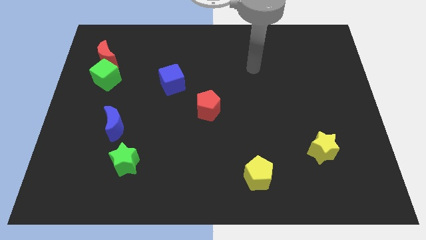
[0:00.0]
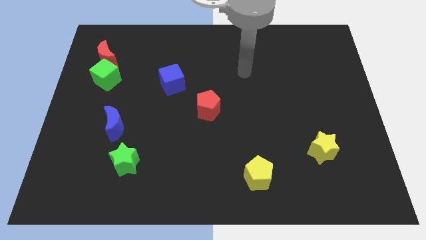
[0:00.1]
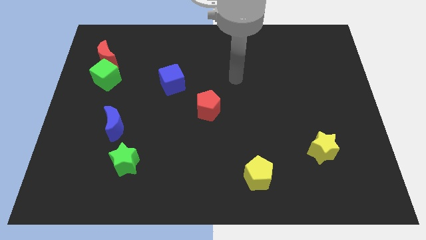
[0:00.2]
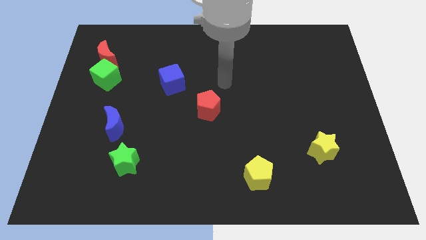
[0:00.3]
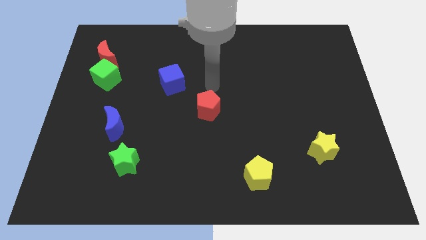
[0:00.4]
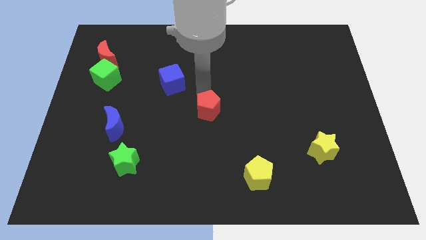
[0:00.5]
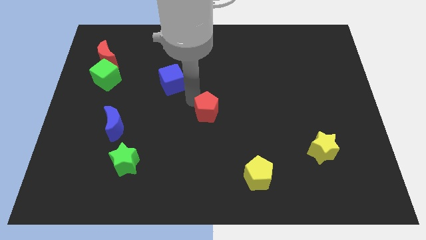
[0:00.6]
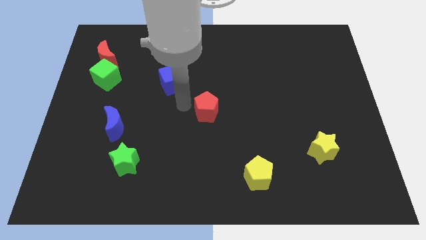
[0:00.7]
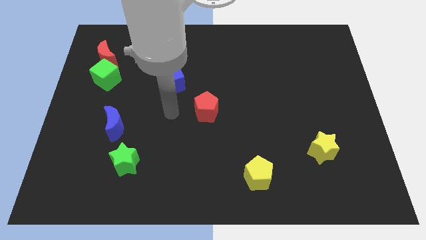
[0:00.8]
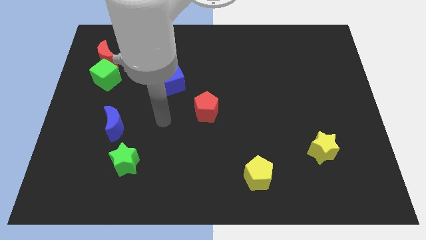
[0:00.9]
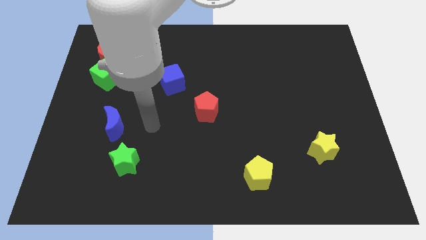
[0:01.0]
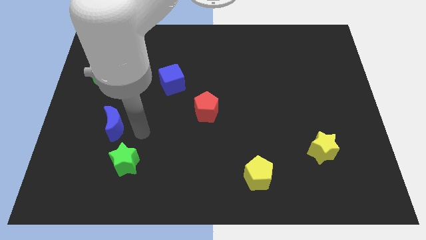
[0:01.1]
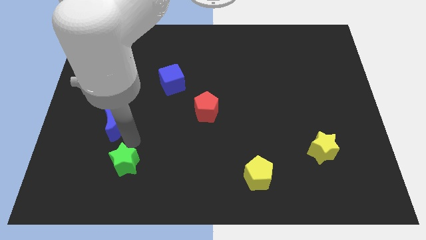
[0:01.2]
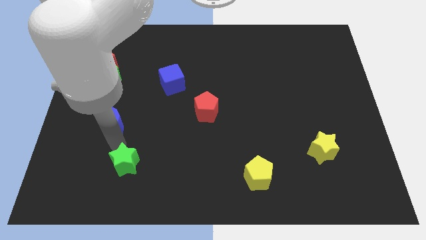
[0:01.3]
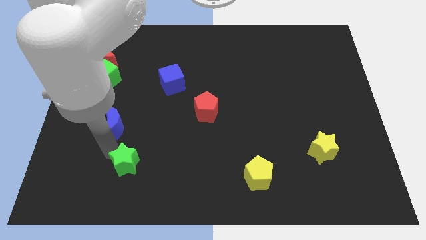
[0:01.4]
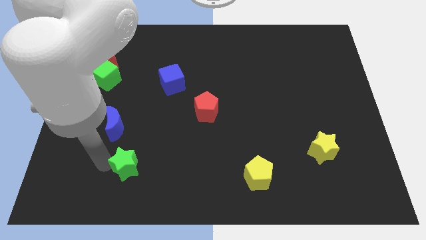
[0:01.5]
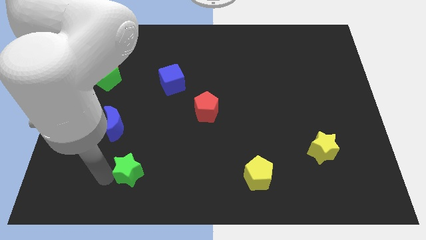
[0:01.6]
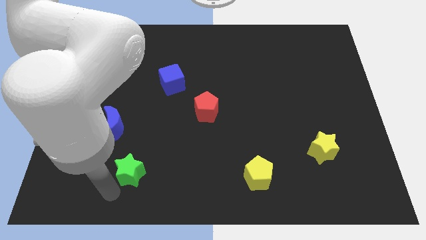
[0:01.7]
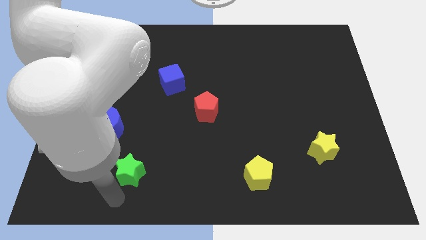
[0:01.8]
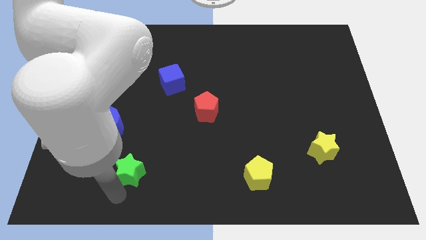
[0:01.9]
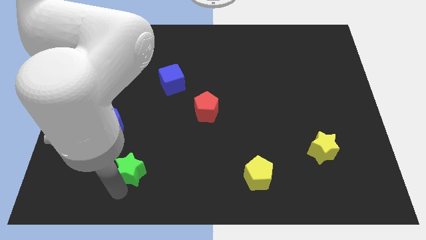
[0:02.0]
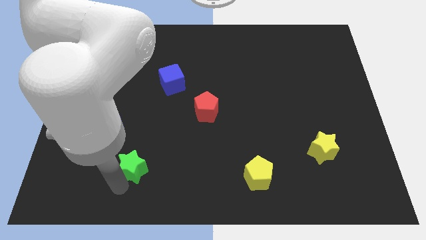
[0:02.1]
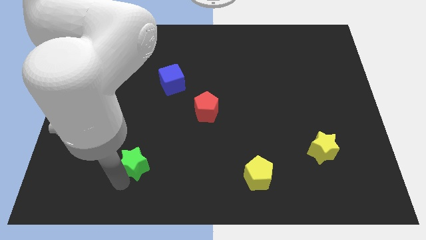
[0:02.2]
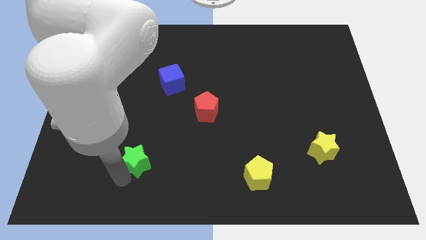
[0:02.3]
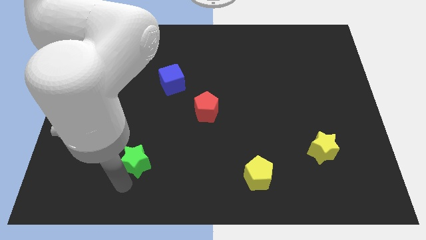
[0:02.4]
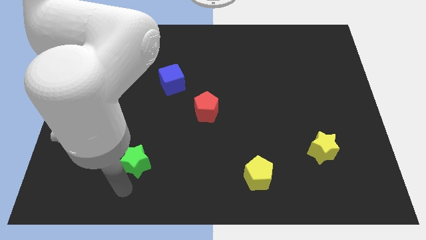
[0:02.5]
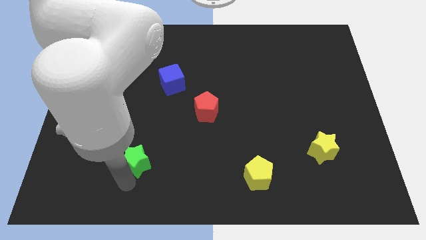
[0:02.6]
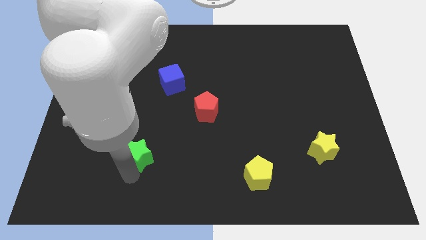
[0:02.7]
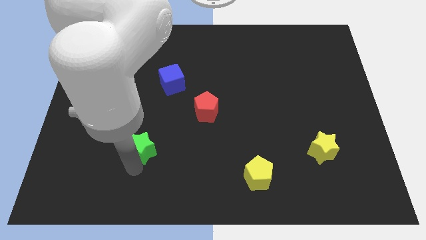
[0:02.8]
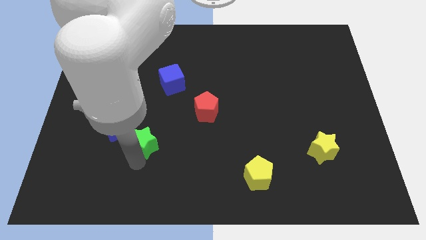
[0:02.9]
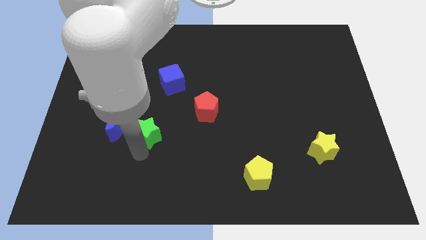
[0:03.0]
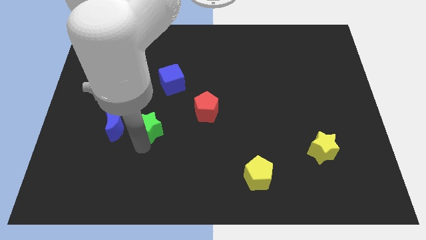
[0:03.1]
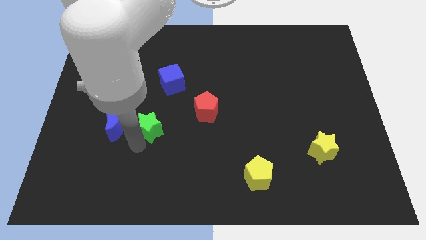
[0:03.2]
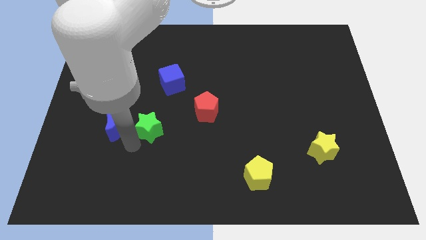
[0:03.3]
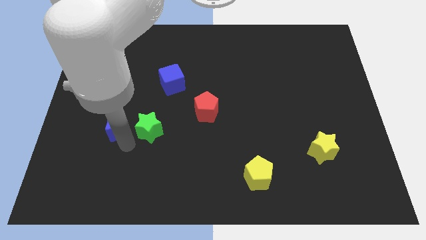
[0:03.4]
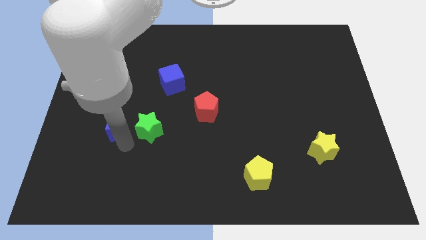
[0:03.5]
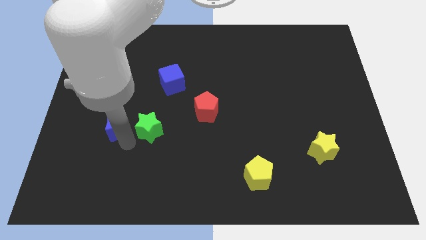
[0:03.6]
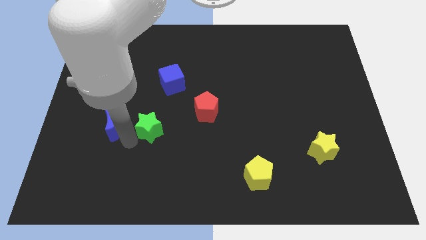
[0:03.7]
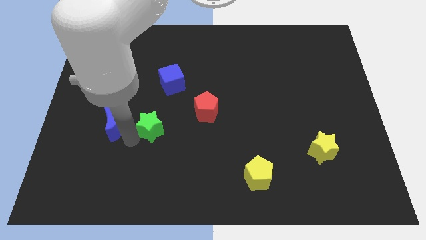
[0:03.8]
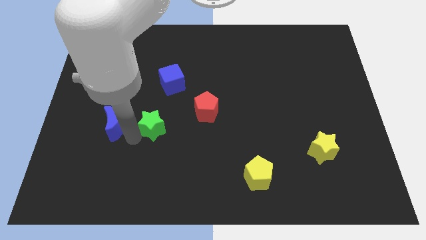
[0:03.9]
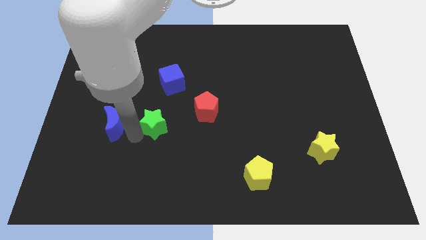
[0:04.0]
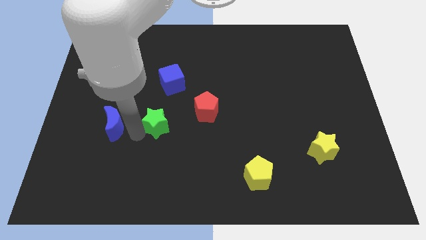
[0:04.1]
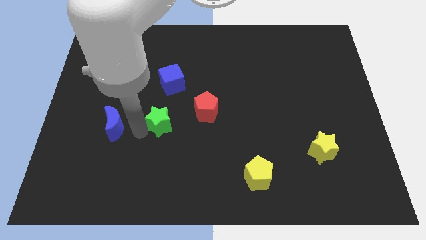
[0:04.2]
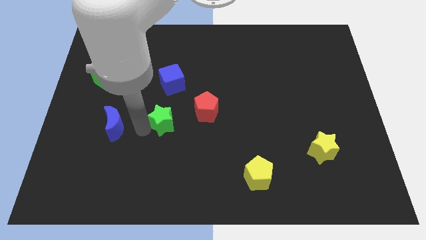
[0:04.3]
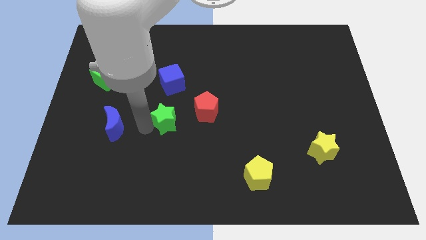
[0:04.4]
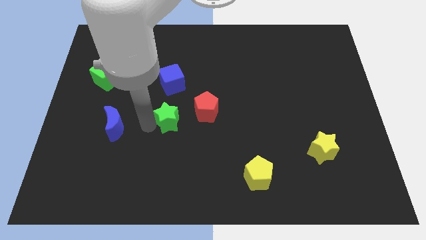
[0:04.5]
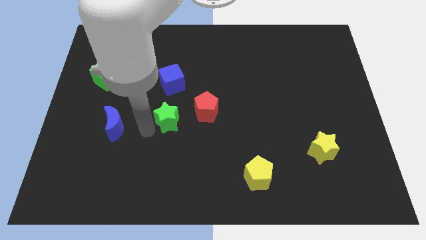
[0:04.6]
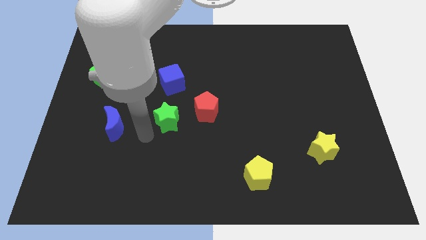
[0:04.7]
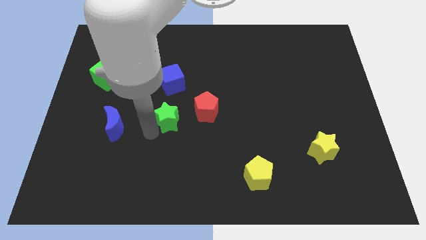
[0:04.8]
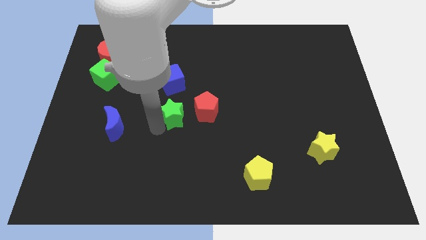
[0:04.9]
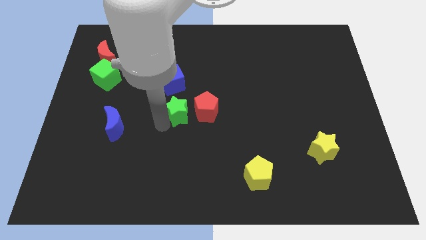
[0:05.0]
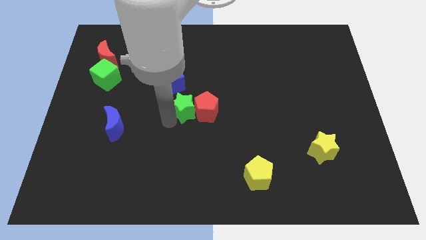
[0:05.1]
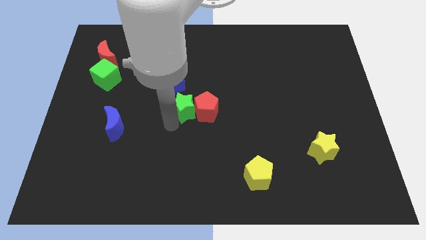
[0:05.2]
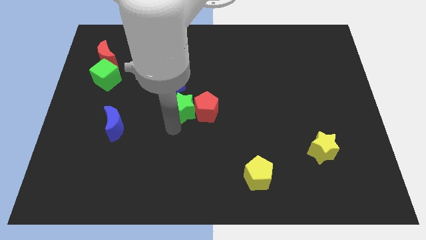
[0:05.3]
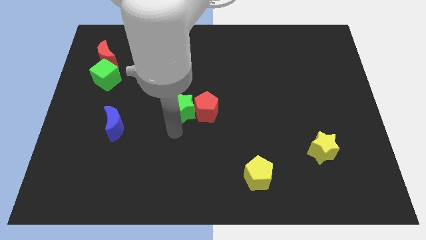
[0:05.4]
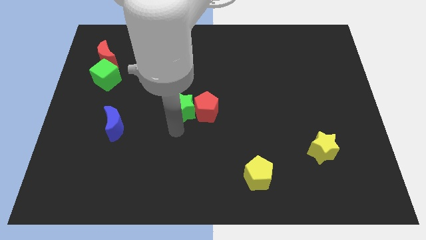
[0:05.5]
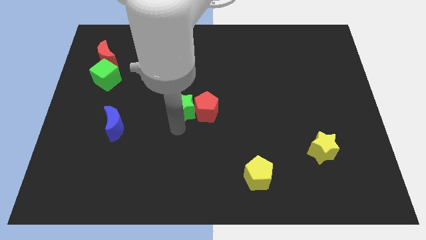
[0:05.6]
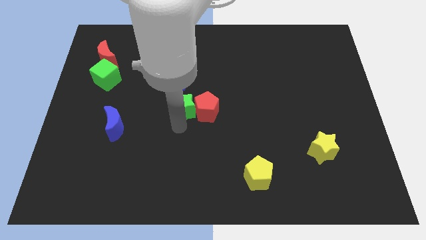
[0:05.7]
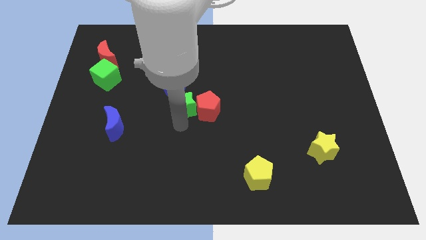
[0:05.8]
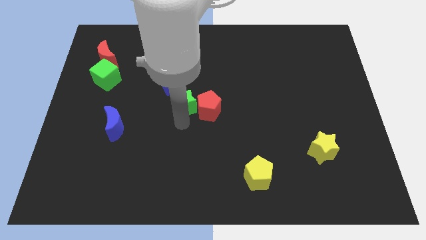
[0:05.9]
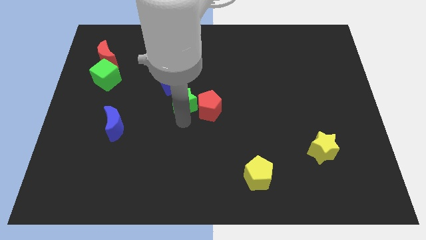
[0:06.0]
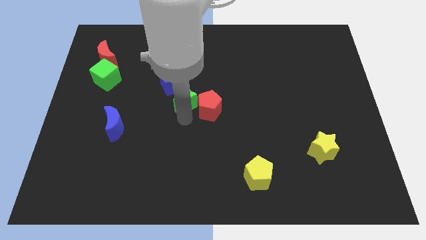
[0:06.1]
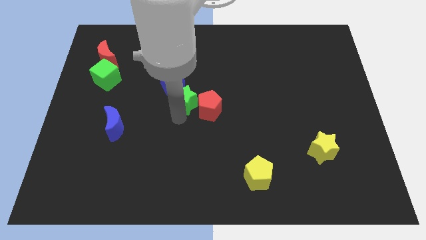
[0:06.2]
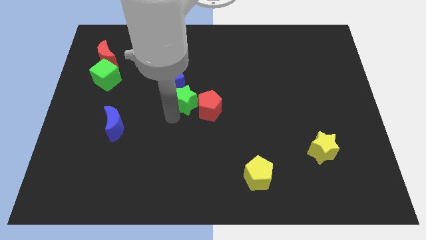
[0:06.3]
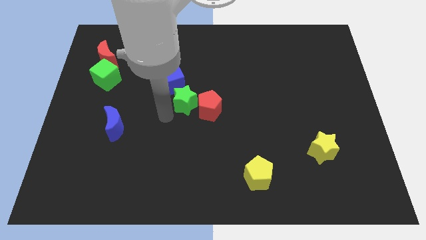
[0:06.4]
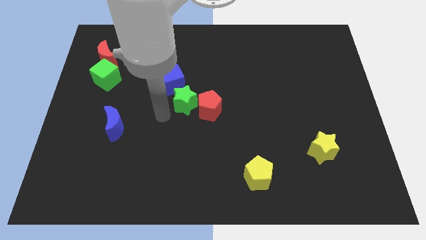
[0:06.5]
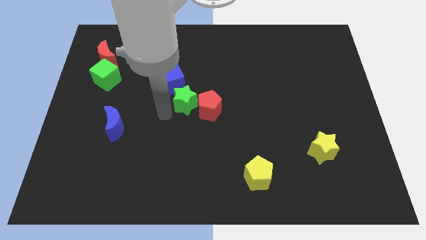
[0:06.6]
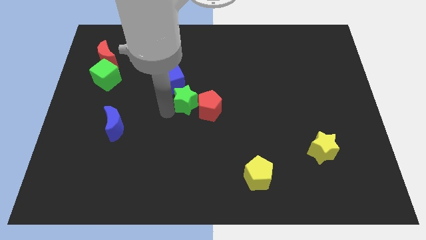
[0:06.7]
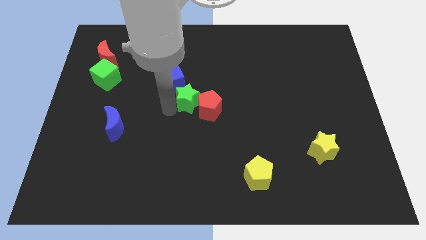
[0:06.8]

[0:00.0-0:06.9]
push the green star upwards and right diagonally

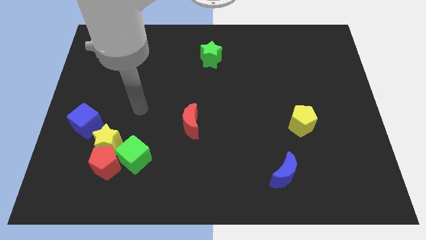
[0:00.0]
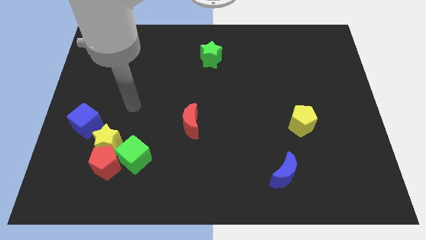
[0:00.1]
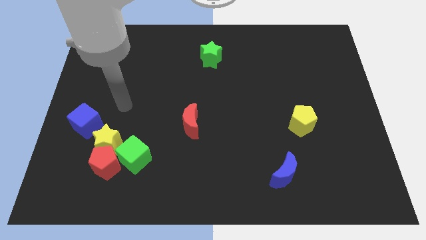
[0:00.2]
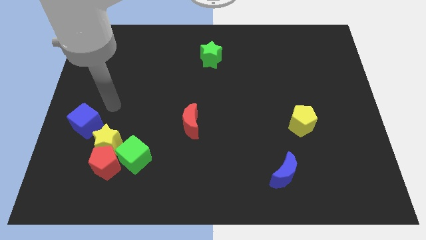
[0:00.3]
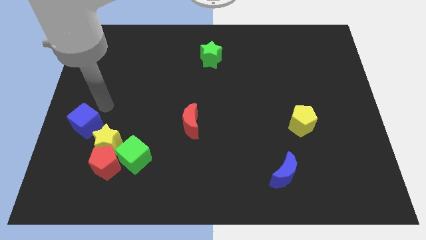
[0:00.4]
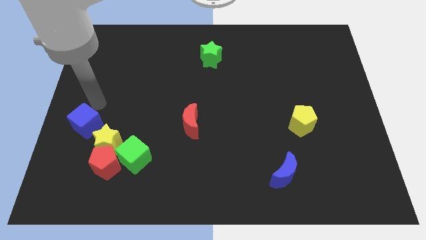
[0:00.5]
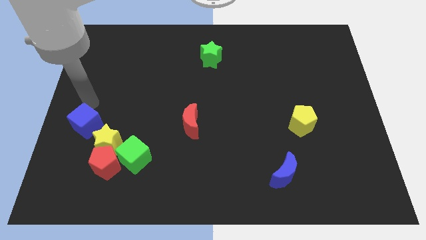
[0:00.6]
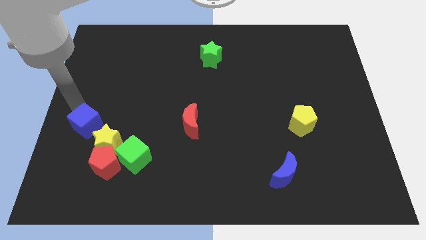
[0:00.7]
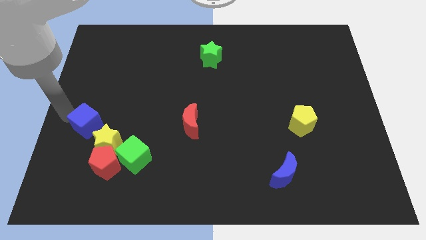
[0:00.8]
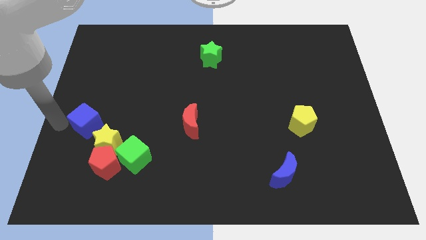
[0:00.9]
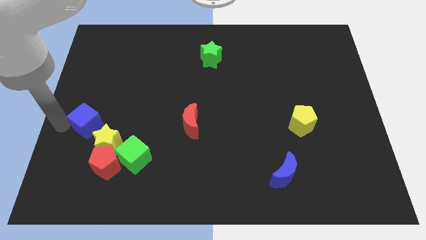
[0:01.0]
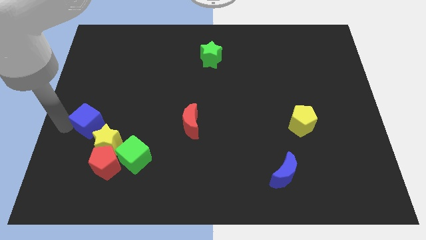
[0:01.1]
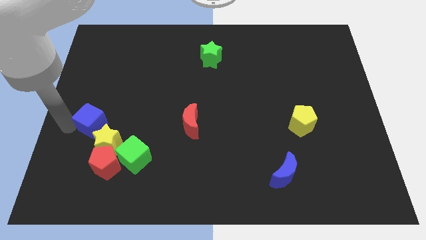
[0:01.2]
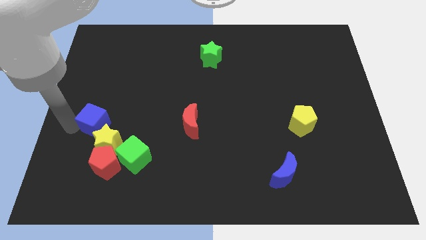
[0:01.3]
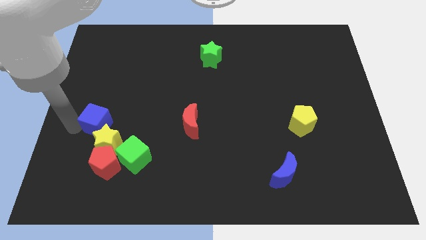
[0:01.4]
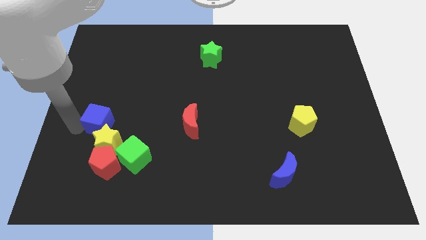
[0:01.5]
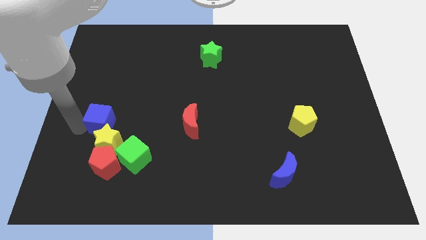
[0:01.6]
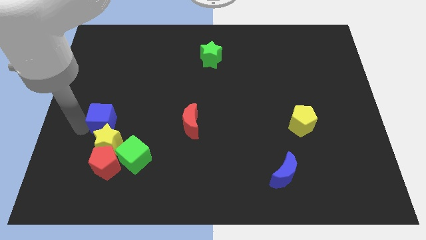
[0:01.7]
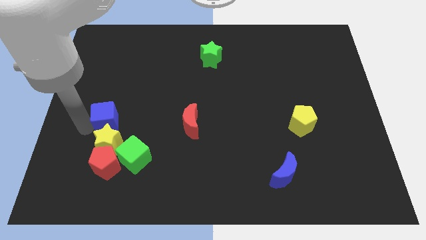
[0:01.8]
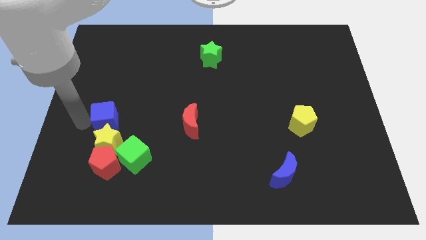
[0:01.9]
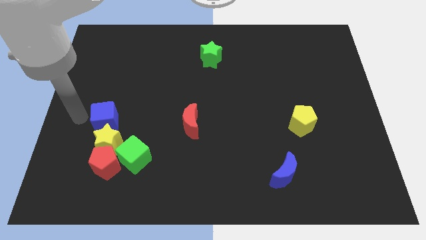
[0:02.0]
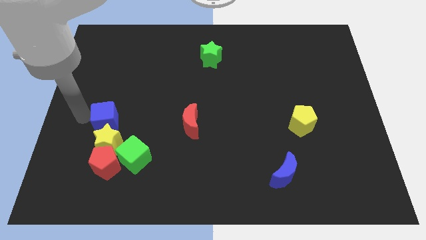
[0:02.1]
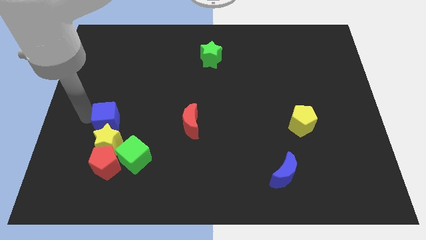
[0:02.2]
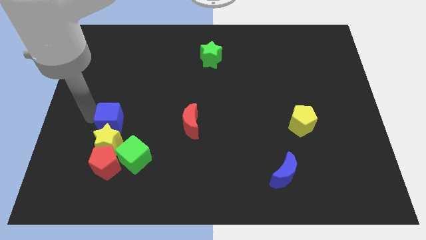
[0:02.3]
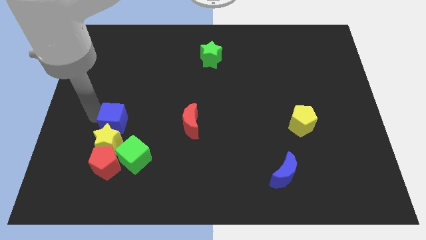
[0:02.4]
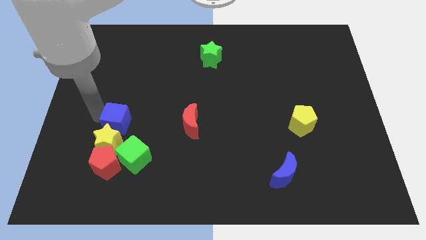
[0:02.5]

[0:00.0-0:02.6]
slide the blue cube a little right
